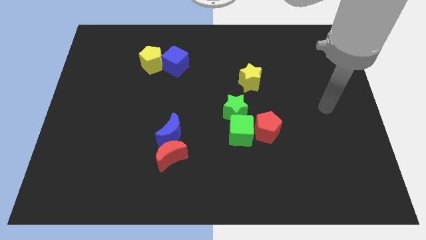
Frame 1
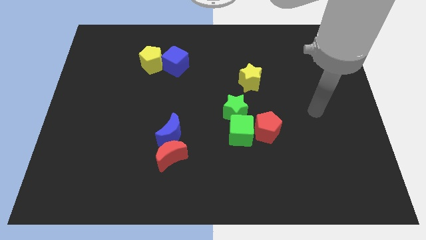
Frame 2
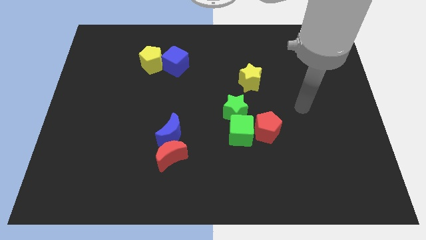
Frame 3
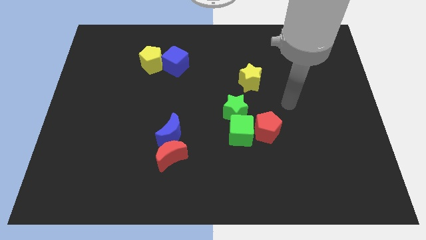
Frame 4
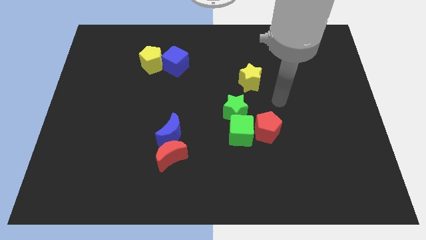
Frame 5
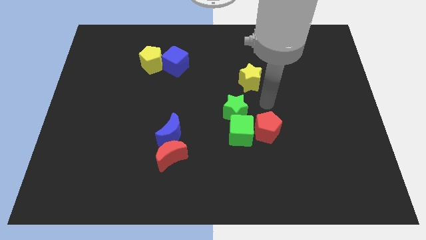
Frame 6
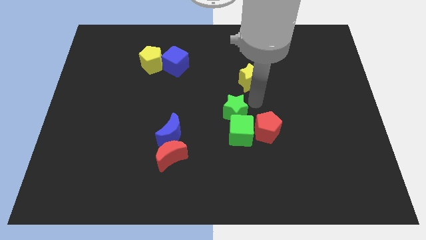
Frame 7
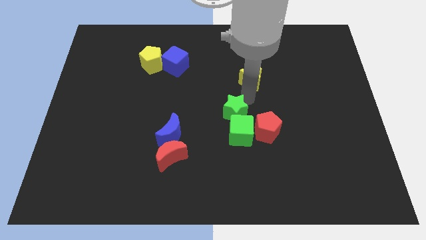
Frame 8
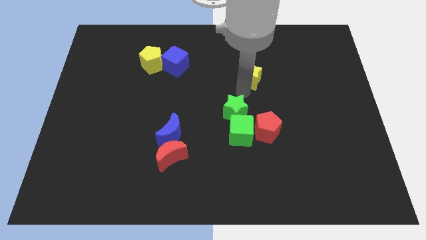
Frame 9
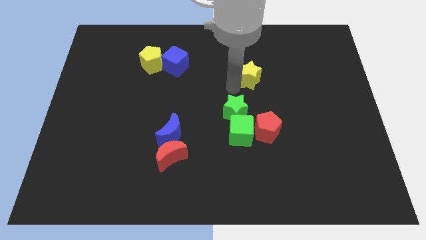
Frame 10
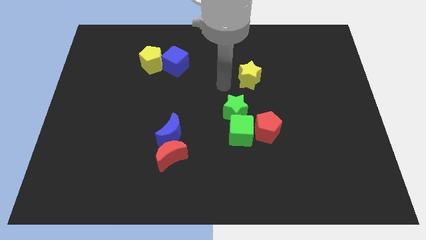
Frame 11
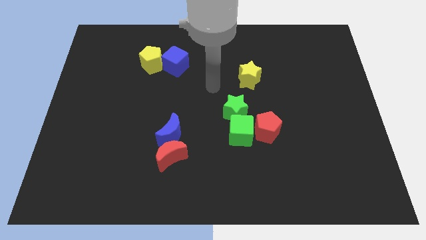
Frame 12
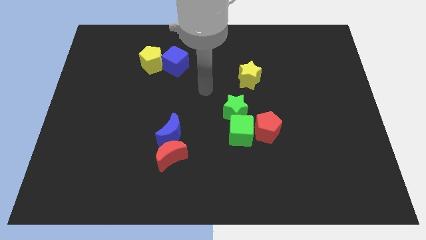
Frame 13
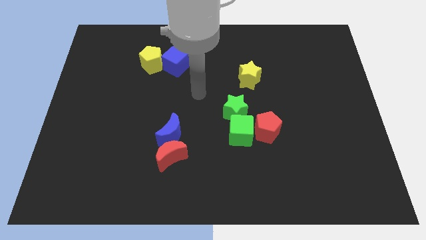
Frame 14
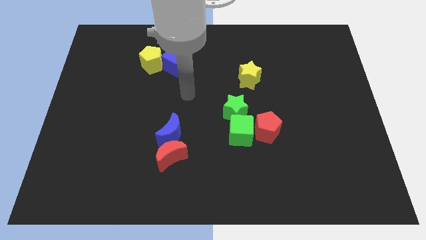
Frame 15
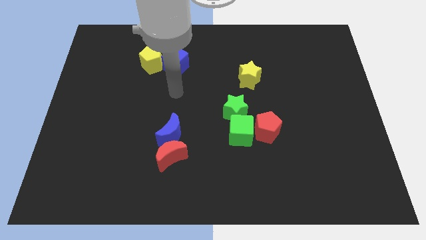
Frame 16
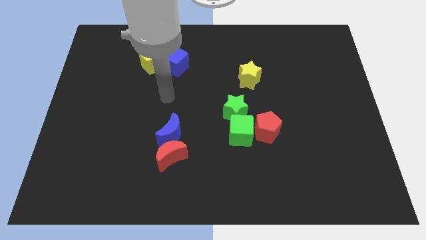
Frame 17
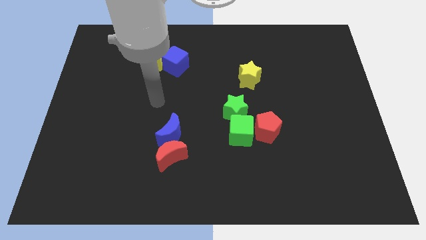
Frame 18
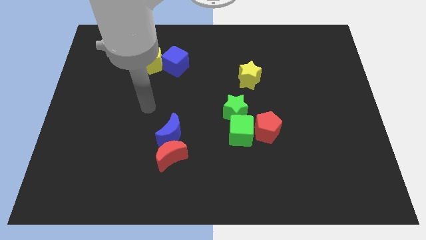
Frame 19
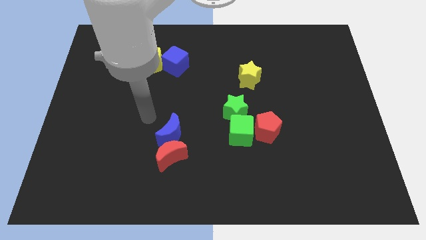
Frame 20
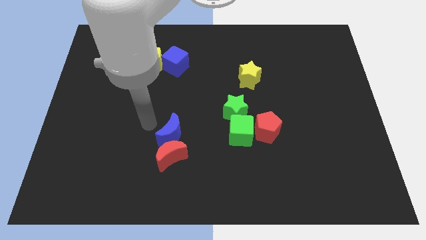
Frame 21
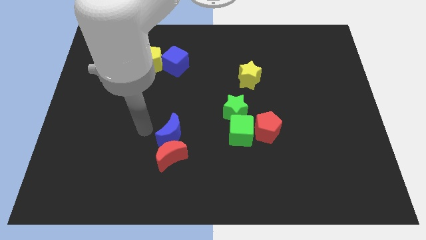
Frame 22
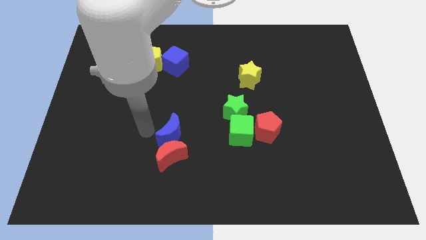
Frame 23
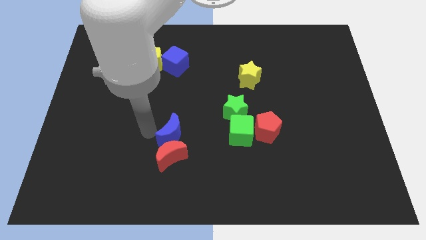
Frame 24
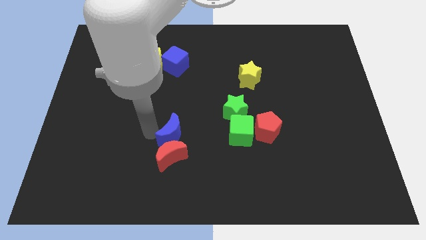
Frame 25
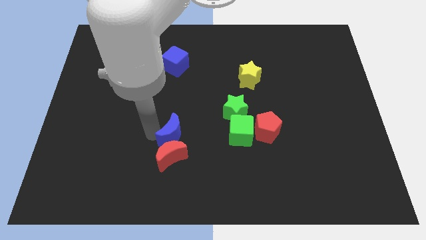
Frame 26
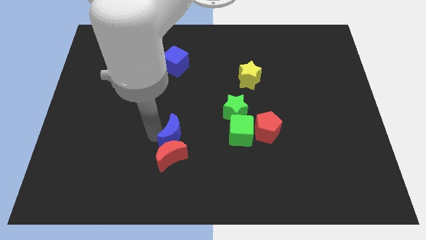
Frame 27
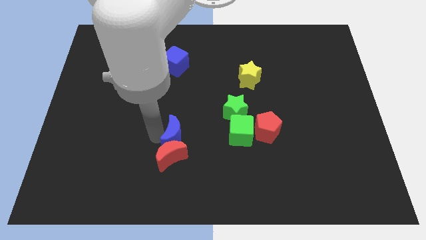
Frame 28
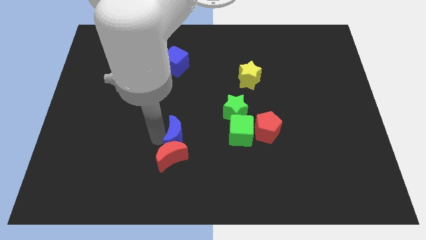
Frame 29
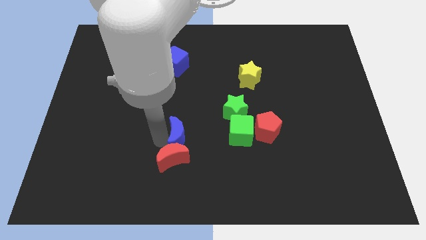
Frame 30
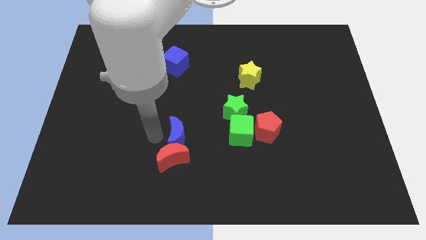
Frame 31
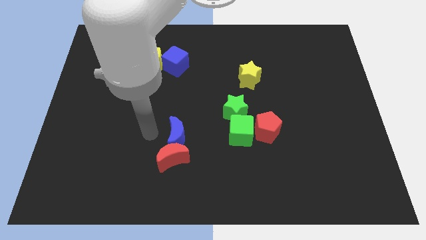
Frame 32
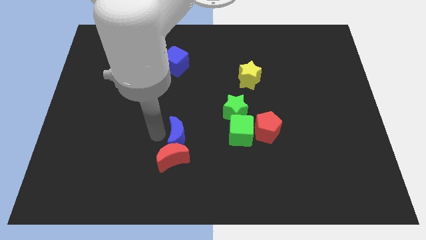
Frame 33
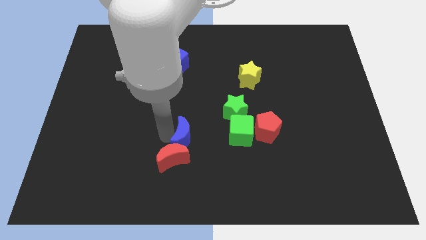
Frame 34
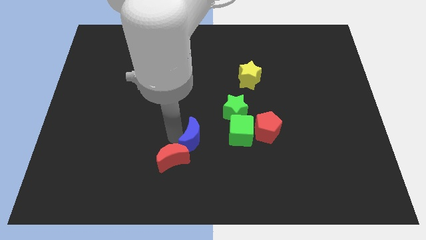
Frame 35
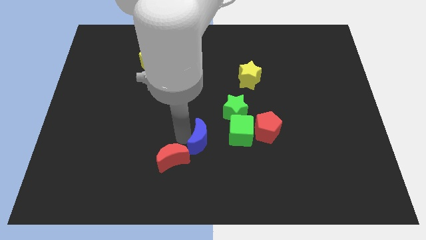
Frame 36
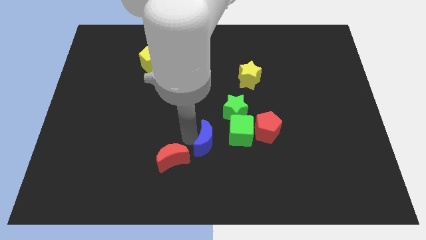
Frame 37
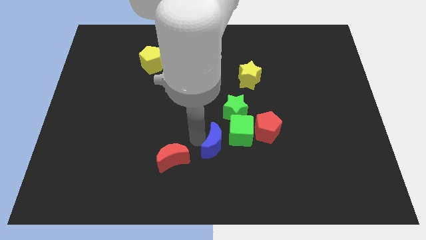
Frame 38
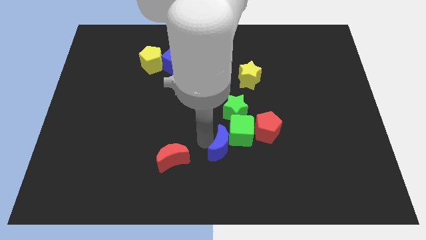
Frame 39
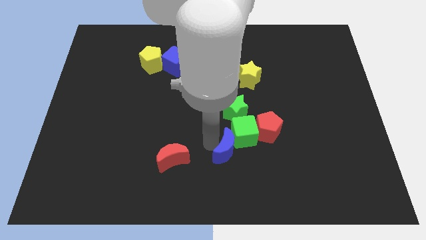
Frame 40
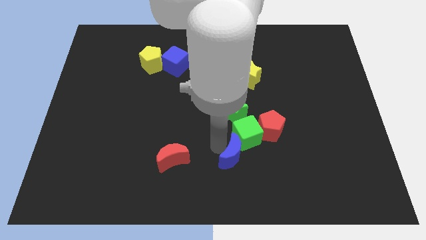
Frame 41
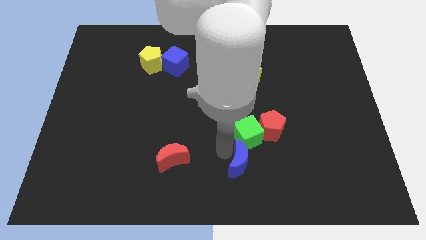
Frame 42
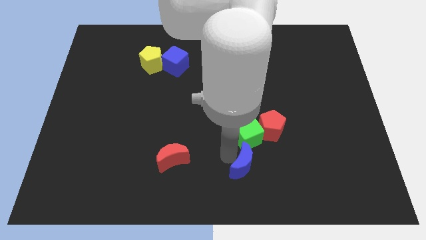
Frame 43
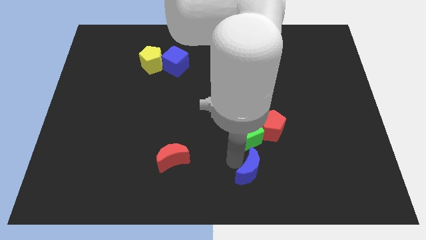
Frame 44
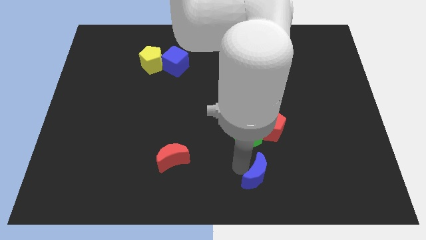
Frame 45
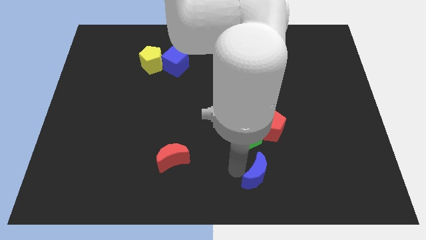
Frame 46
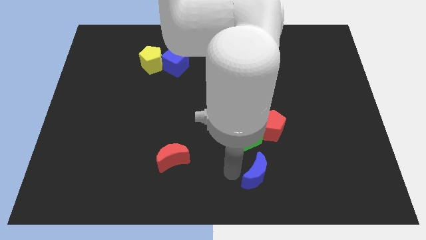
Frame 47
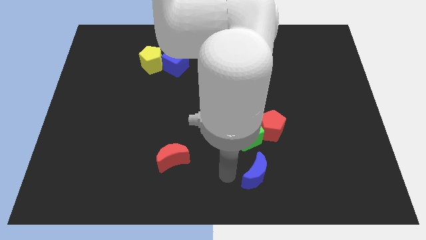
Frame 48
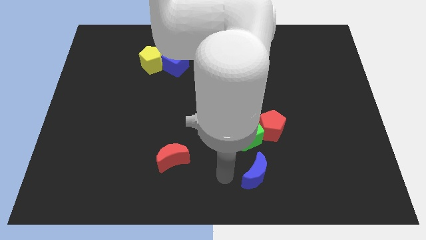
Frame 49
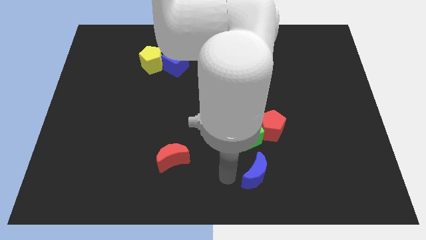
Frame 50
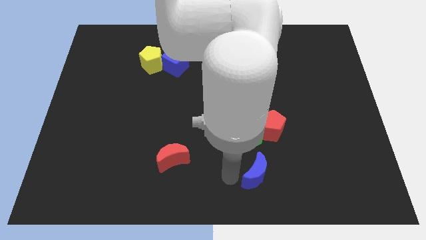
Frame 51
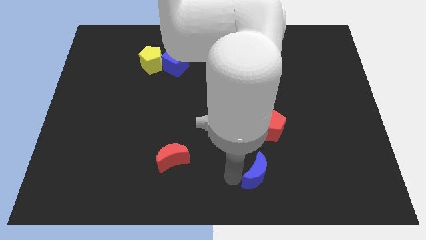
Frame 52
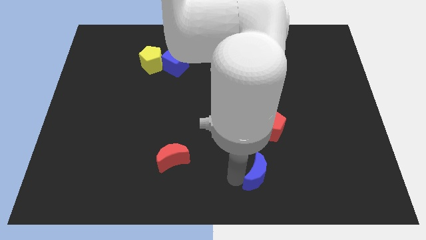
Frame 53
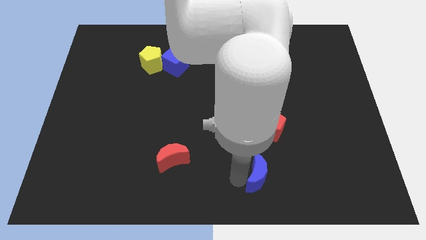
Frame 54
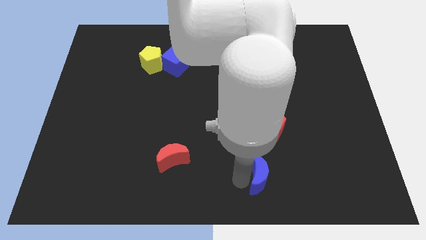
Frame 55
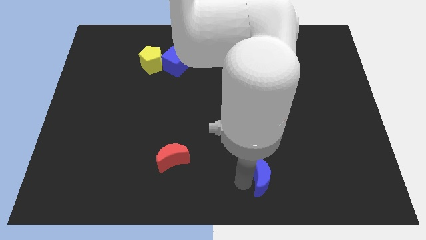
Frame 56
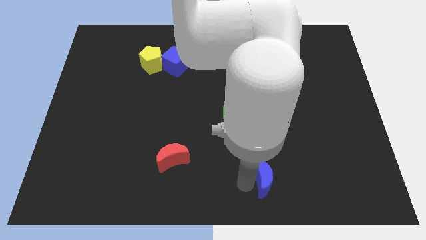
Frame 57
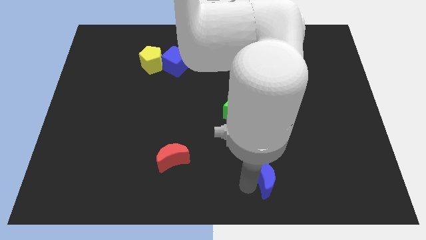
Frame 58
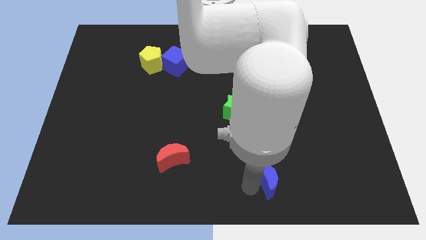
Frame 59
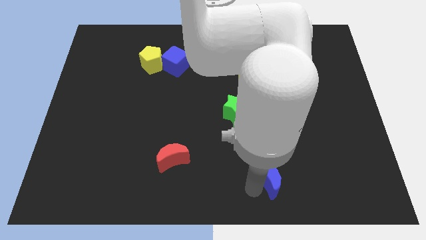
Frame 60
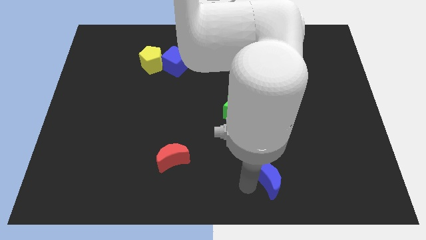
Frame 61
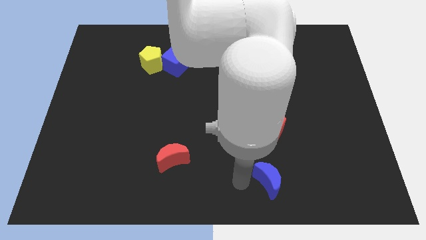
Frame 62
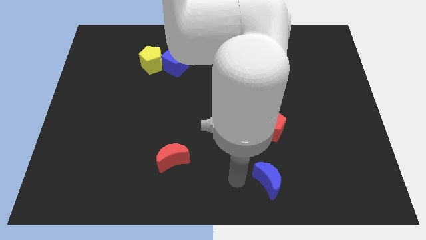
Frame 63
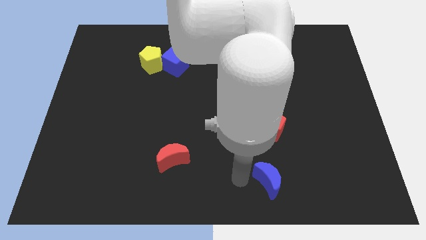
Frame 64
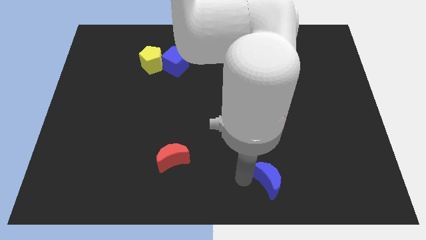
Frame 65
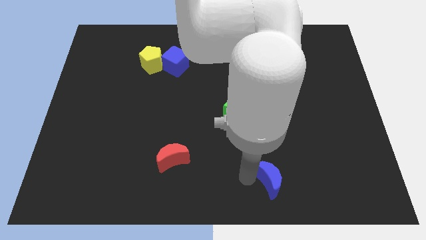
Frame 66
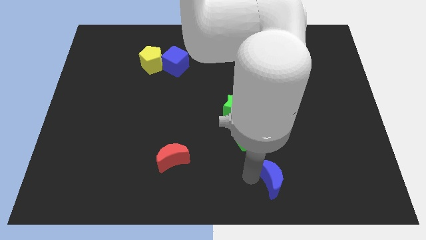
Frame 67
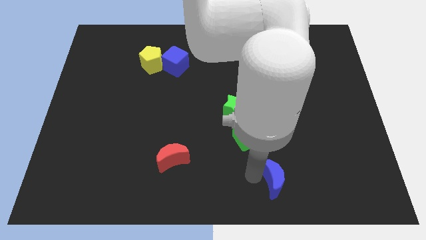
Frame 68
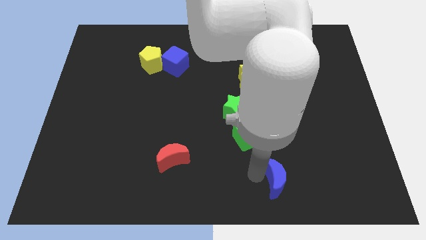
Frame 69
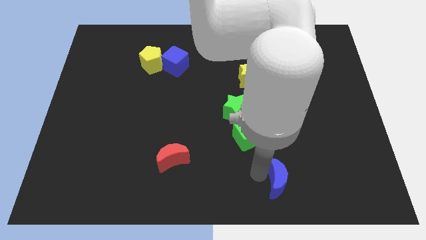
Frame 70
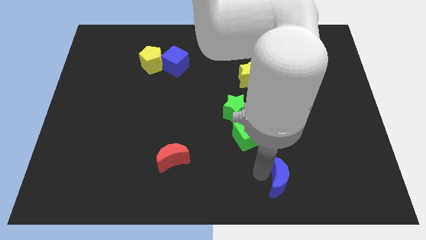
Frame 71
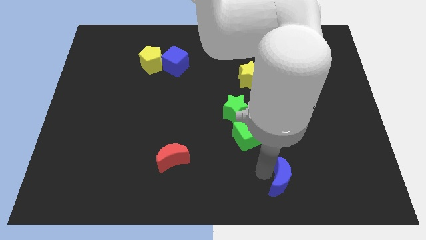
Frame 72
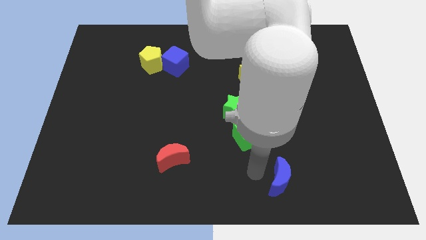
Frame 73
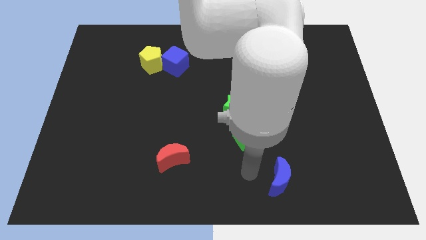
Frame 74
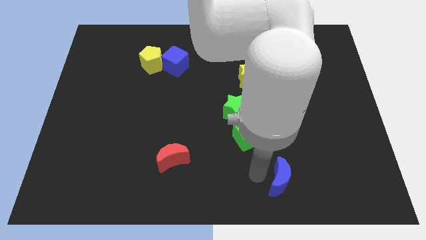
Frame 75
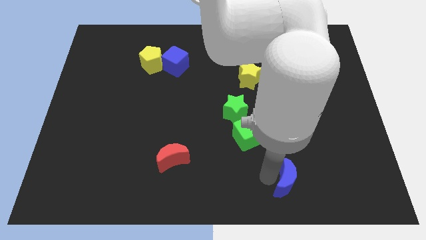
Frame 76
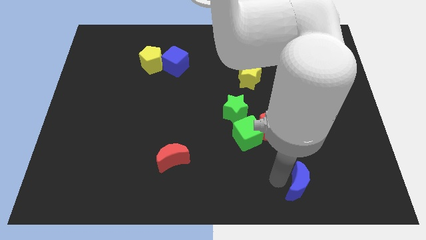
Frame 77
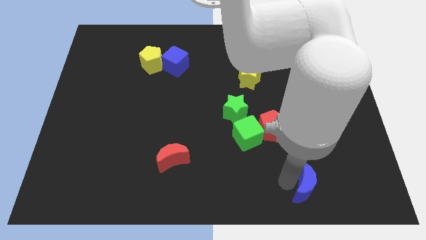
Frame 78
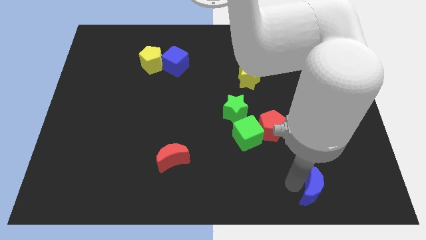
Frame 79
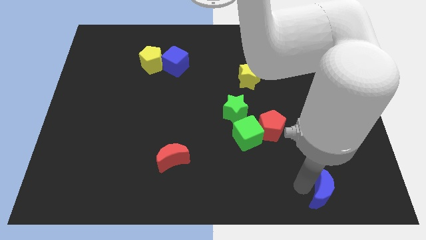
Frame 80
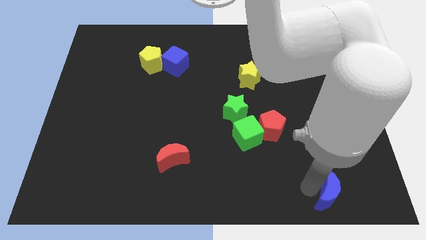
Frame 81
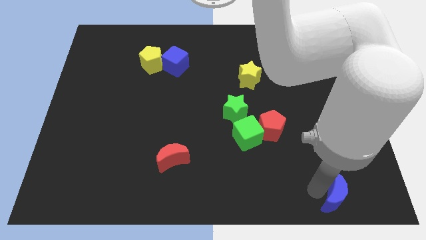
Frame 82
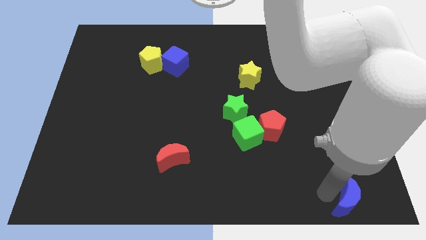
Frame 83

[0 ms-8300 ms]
slide the blue moon to the bottom right of the board
